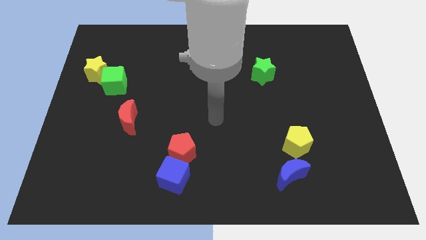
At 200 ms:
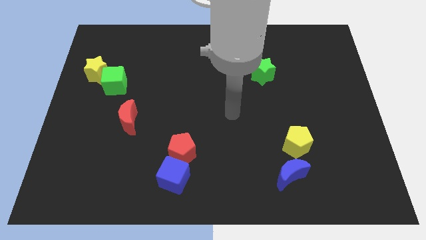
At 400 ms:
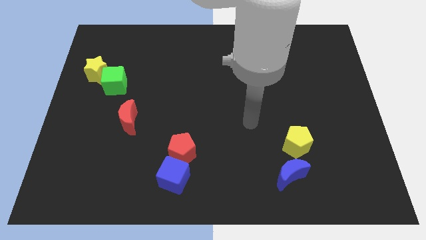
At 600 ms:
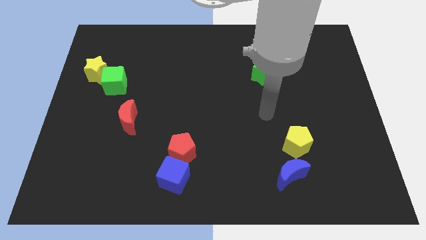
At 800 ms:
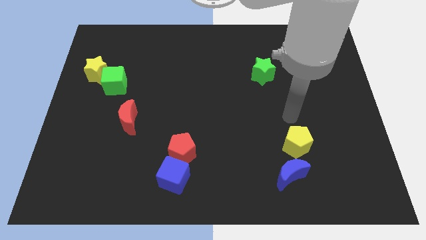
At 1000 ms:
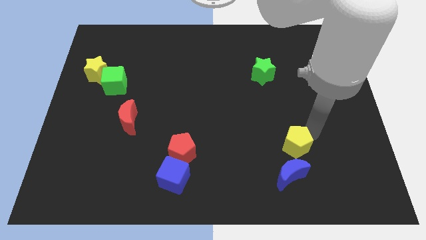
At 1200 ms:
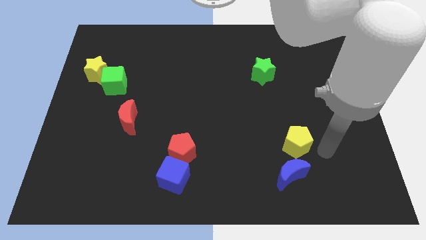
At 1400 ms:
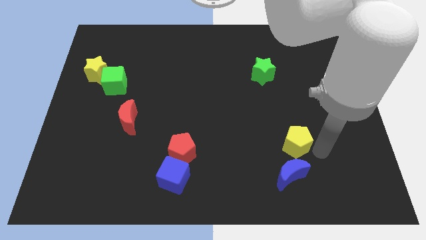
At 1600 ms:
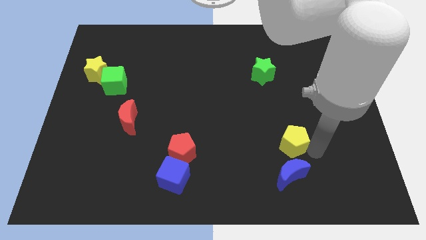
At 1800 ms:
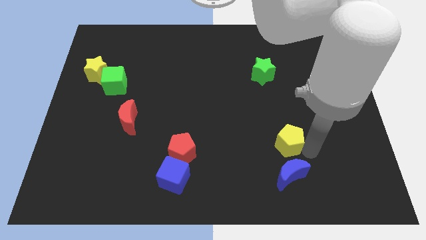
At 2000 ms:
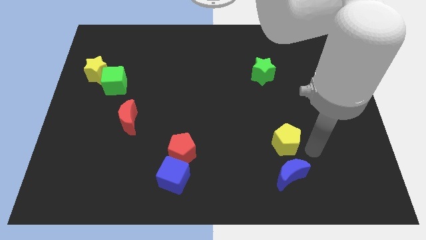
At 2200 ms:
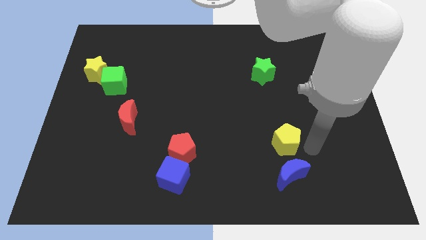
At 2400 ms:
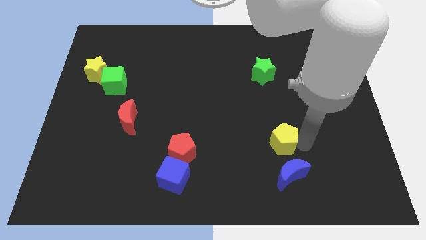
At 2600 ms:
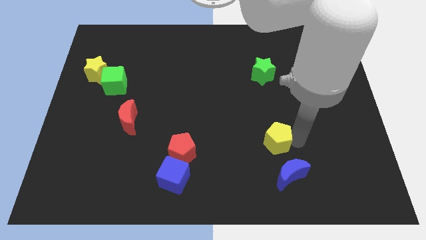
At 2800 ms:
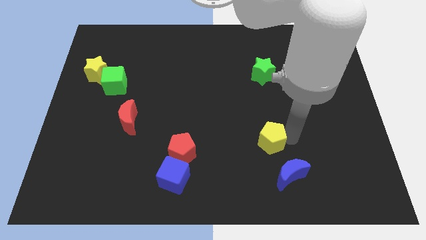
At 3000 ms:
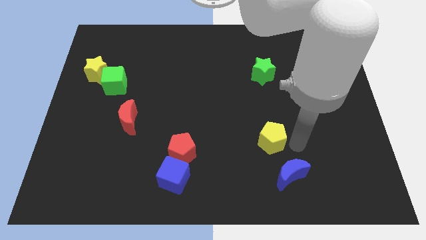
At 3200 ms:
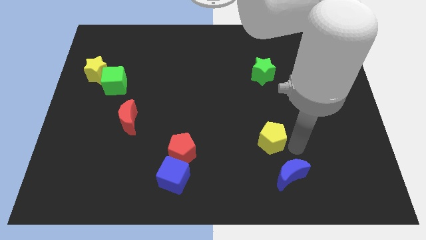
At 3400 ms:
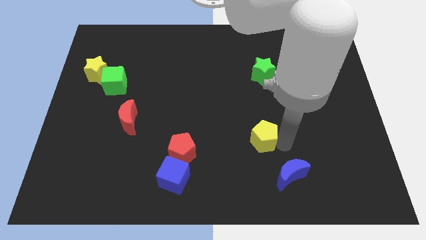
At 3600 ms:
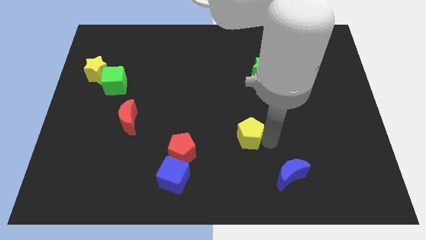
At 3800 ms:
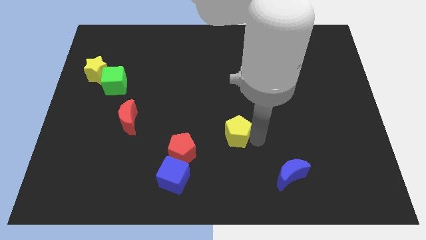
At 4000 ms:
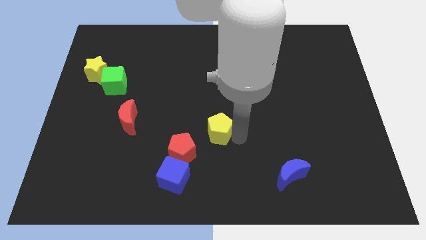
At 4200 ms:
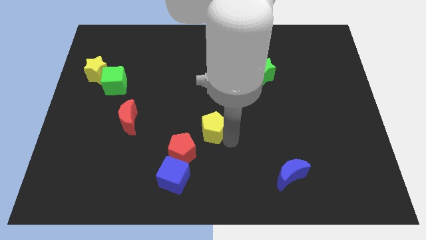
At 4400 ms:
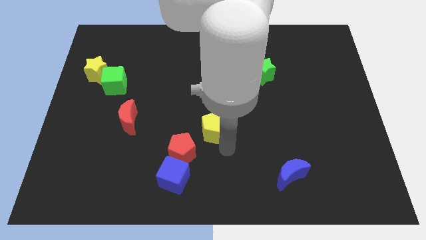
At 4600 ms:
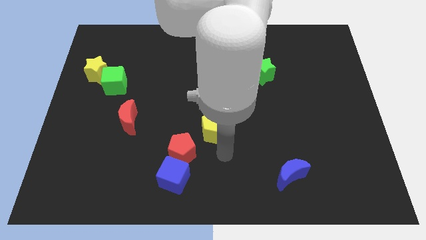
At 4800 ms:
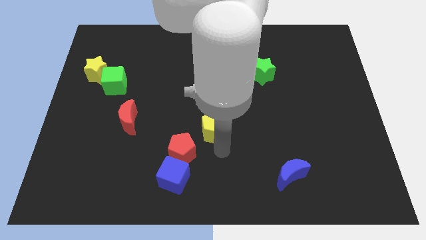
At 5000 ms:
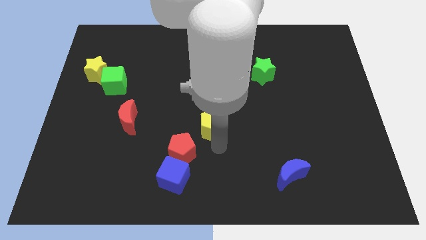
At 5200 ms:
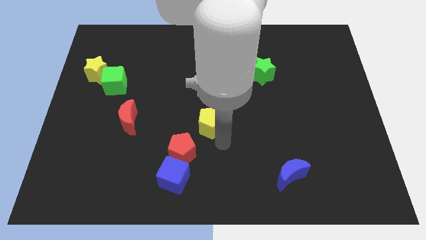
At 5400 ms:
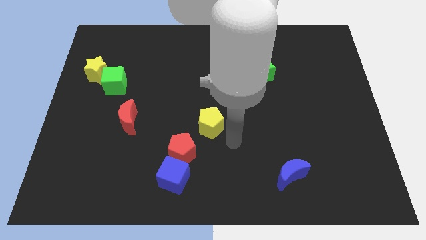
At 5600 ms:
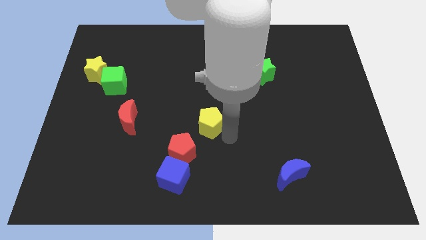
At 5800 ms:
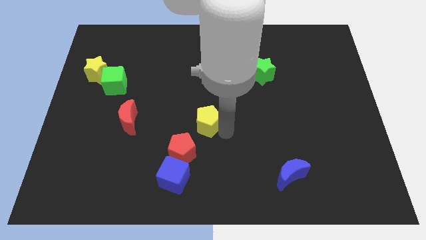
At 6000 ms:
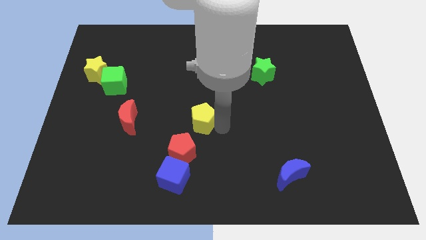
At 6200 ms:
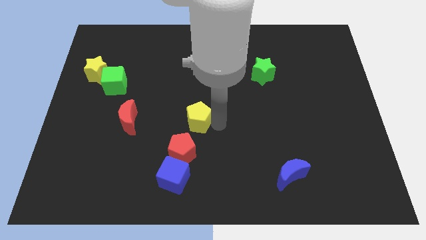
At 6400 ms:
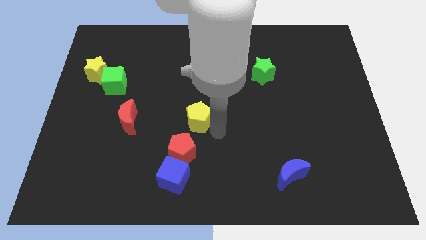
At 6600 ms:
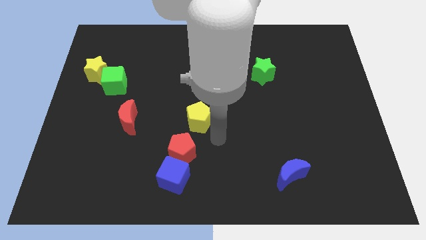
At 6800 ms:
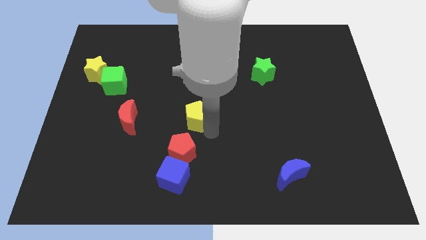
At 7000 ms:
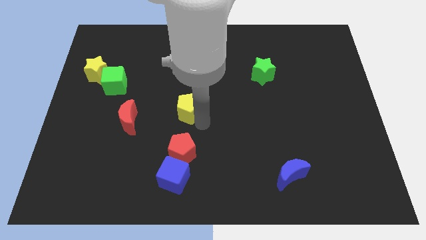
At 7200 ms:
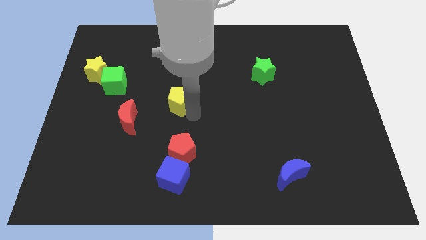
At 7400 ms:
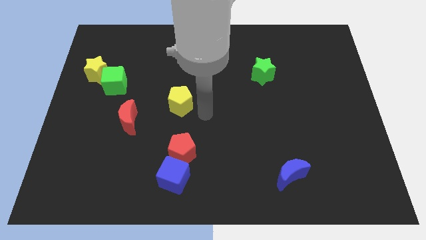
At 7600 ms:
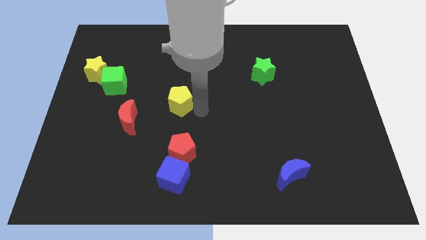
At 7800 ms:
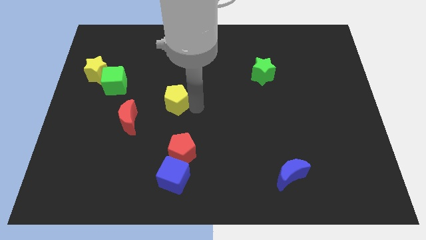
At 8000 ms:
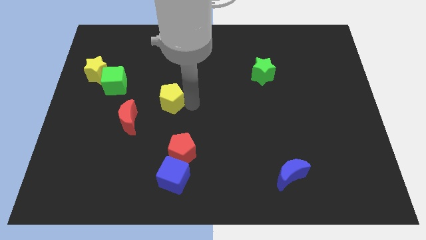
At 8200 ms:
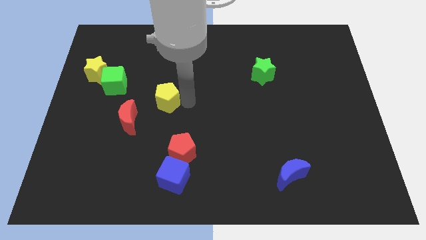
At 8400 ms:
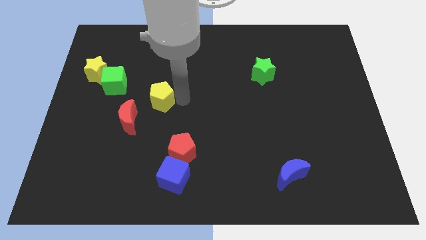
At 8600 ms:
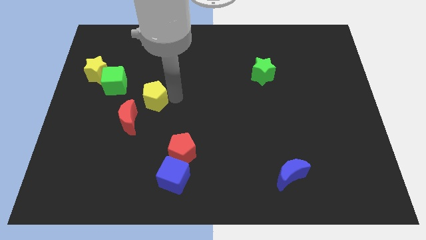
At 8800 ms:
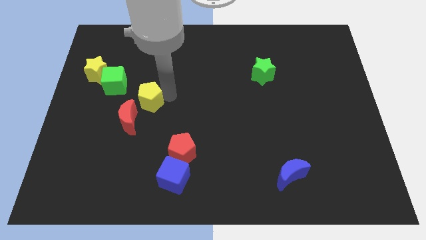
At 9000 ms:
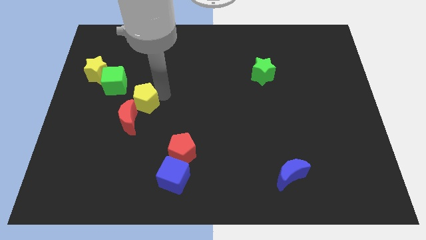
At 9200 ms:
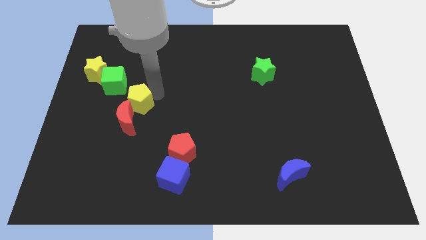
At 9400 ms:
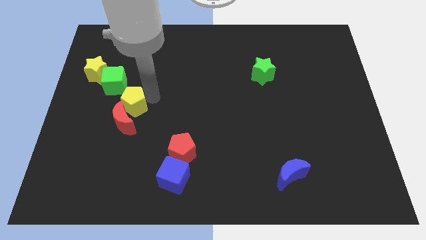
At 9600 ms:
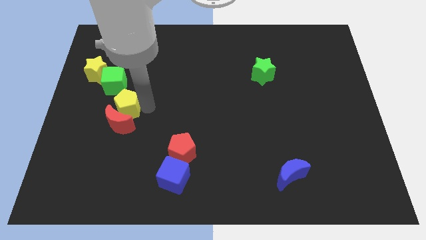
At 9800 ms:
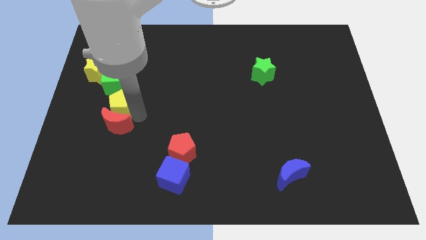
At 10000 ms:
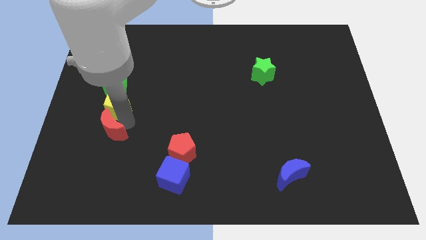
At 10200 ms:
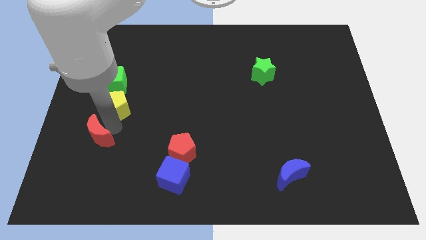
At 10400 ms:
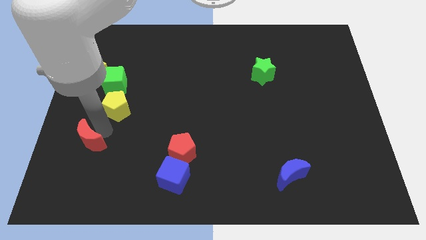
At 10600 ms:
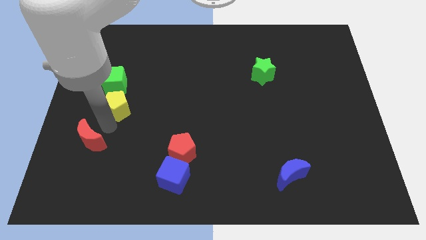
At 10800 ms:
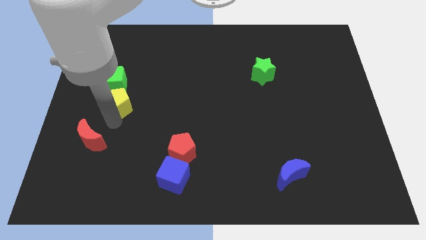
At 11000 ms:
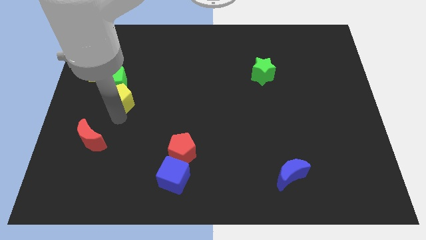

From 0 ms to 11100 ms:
put the yellow pentagon towards the green cube

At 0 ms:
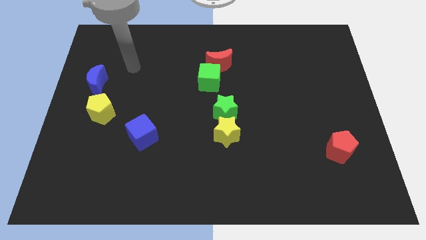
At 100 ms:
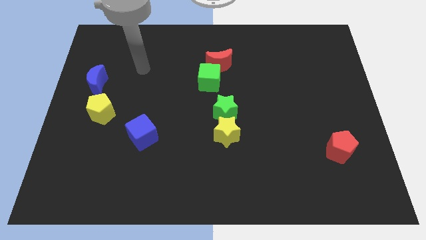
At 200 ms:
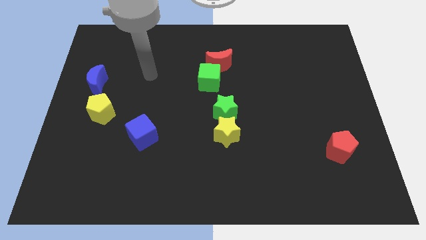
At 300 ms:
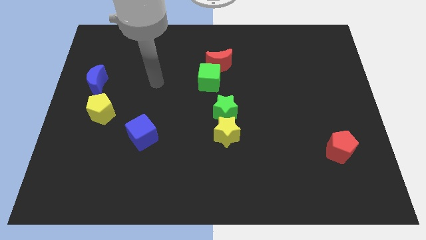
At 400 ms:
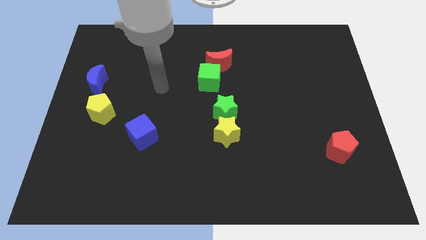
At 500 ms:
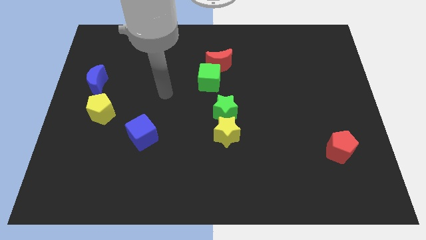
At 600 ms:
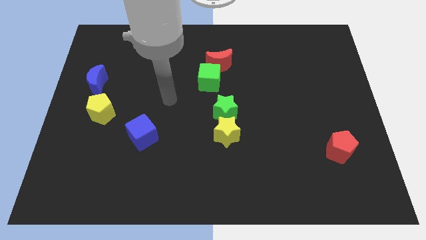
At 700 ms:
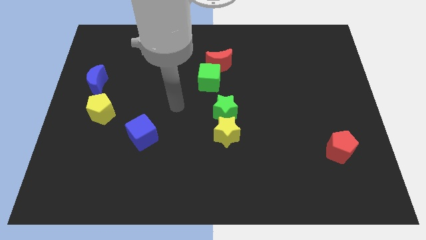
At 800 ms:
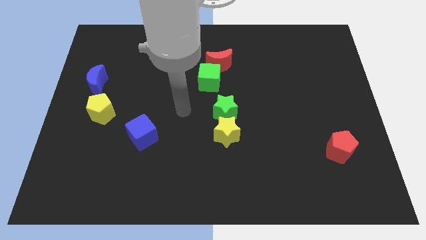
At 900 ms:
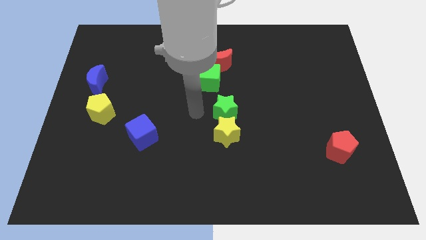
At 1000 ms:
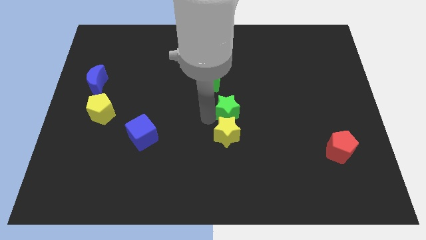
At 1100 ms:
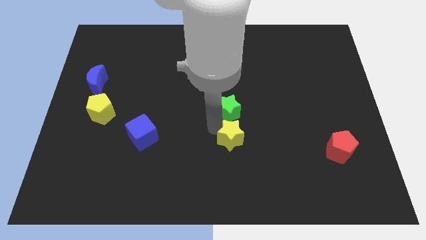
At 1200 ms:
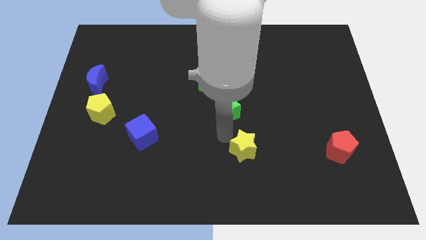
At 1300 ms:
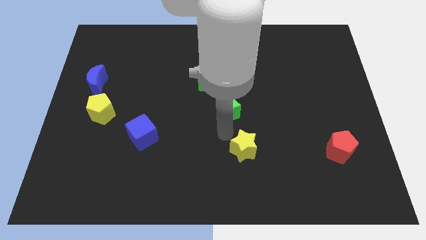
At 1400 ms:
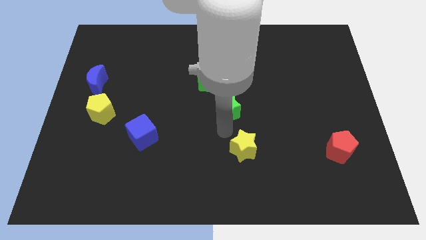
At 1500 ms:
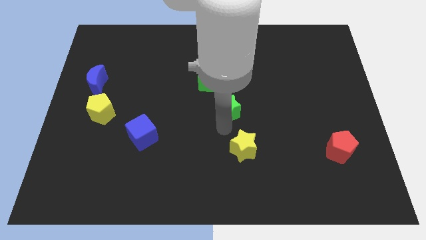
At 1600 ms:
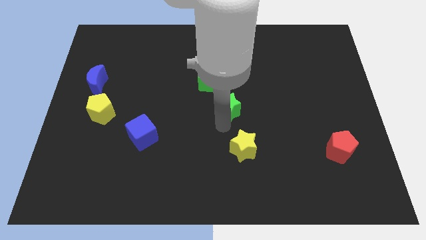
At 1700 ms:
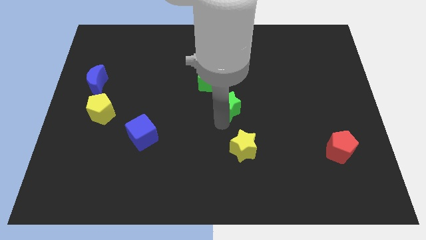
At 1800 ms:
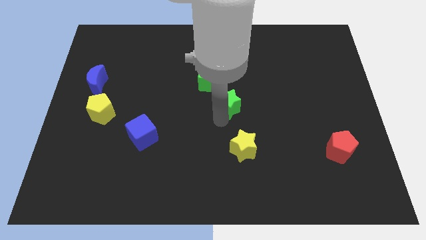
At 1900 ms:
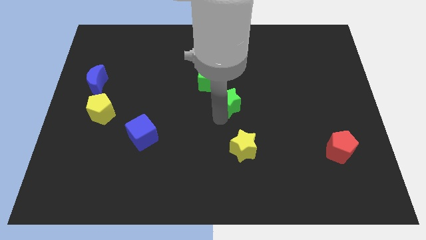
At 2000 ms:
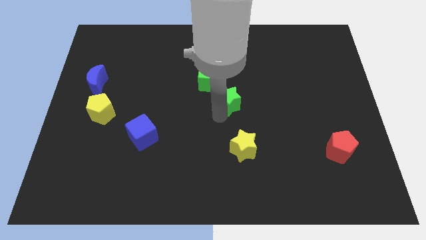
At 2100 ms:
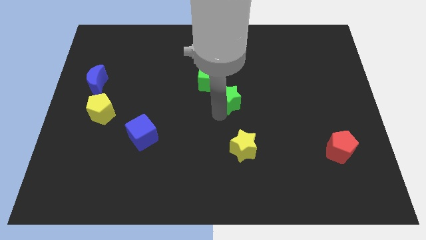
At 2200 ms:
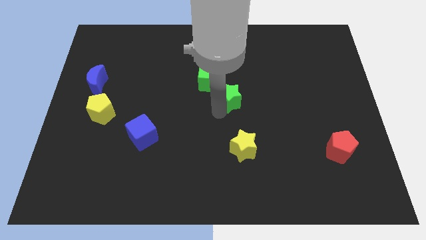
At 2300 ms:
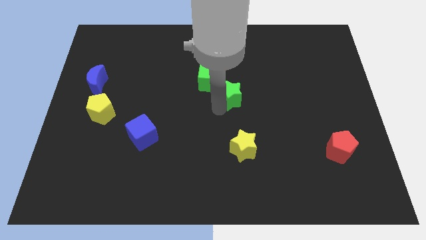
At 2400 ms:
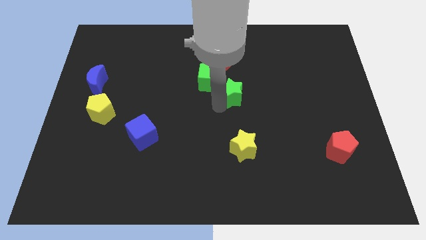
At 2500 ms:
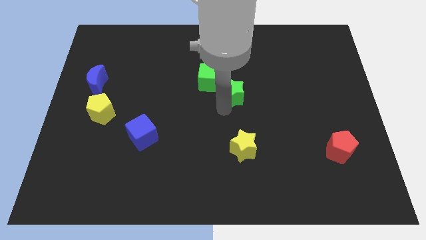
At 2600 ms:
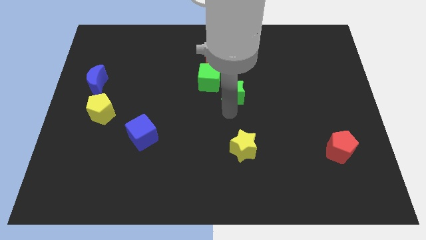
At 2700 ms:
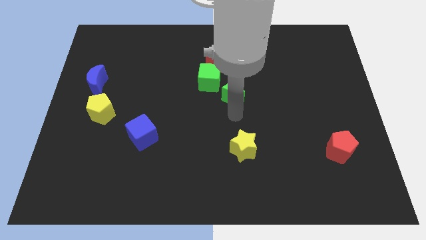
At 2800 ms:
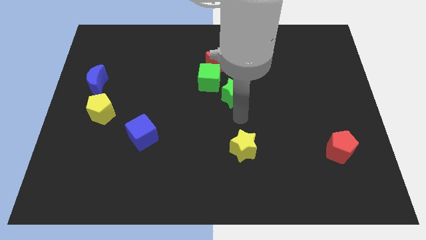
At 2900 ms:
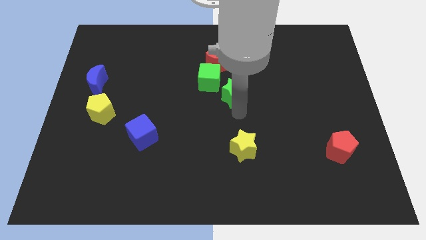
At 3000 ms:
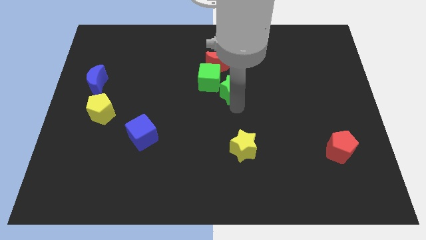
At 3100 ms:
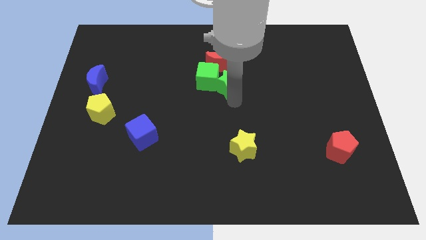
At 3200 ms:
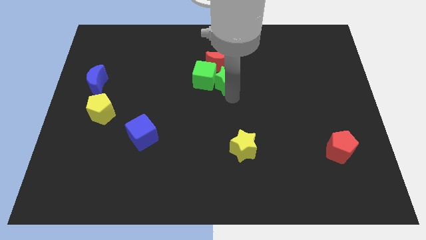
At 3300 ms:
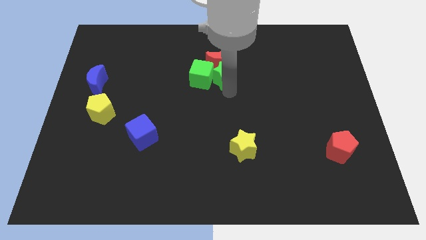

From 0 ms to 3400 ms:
put the green star to the red moon
